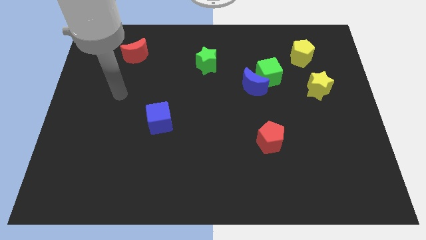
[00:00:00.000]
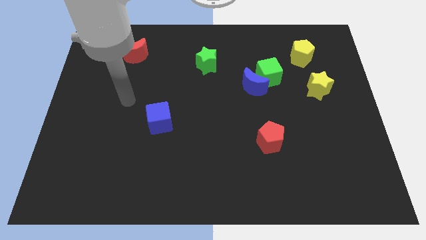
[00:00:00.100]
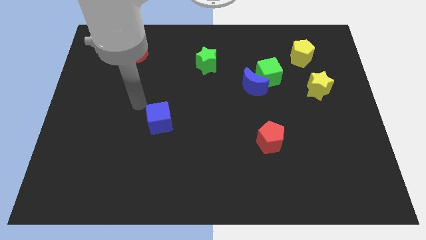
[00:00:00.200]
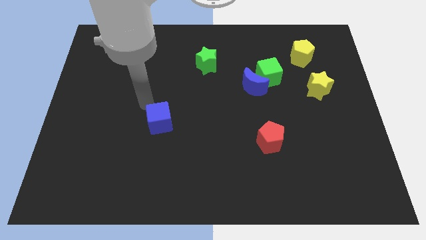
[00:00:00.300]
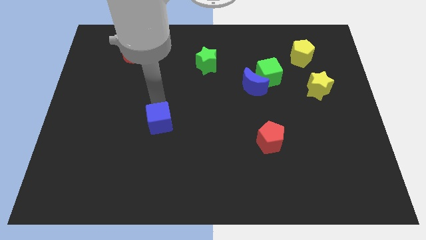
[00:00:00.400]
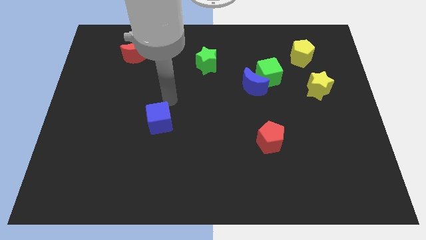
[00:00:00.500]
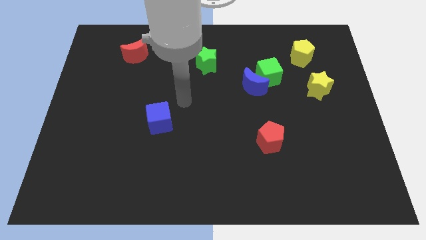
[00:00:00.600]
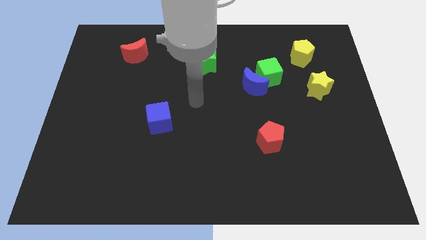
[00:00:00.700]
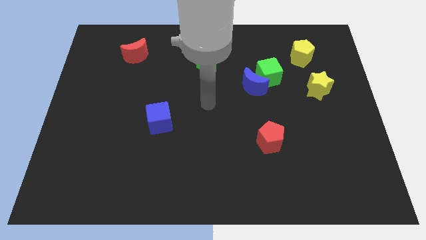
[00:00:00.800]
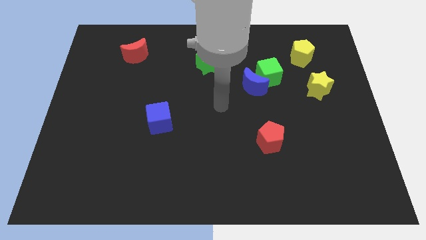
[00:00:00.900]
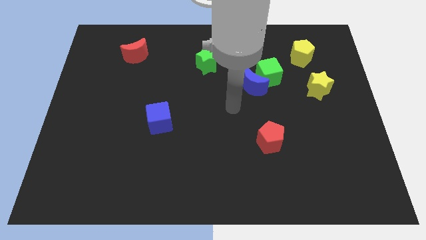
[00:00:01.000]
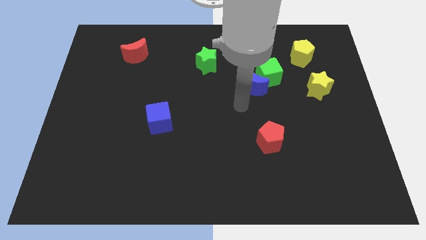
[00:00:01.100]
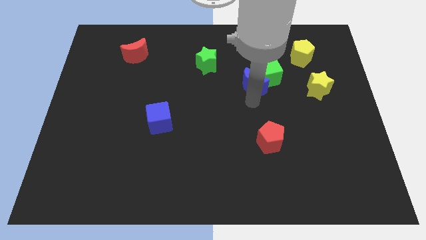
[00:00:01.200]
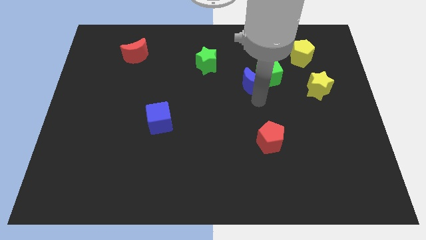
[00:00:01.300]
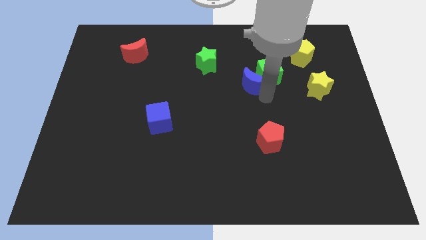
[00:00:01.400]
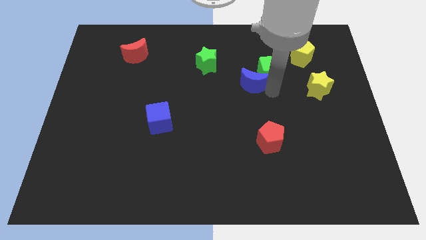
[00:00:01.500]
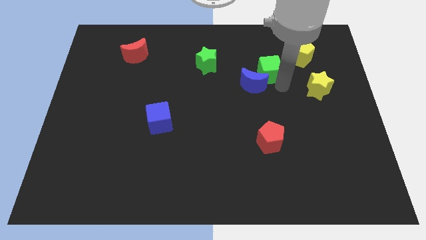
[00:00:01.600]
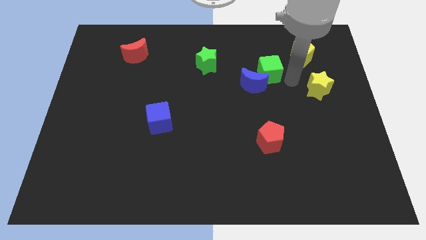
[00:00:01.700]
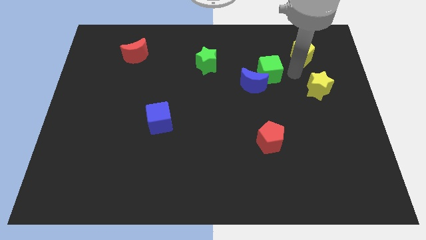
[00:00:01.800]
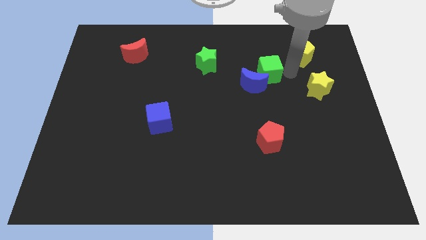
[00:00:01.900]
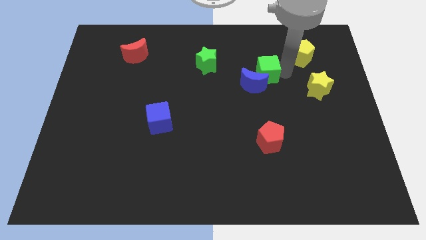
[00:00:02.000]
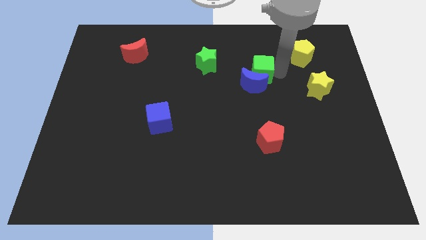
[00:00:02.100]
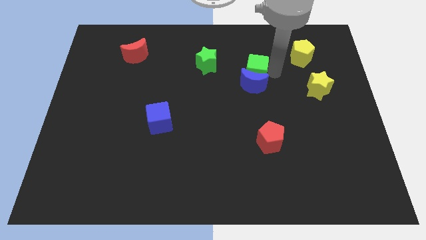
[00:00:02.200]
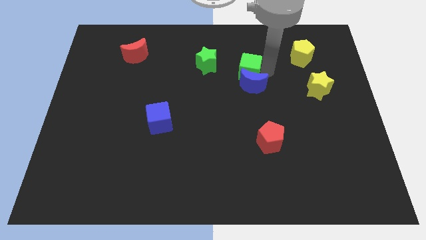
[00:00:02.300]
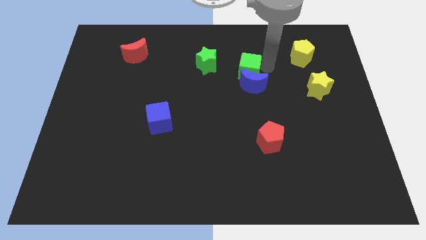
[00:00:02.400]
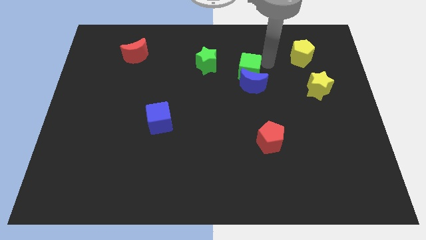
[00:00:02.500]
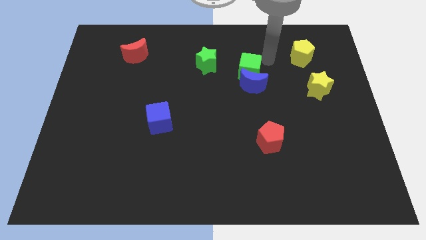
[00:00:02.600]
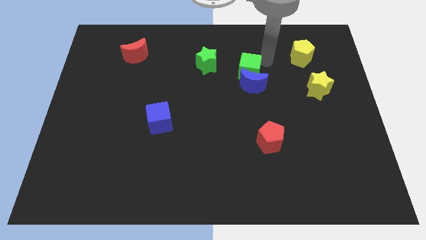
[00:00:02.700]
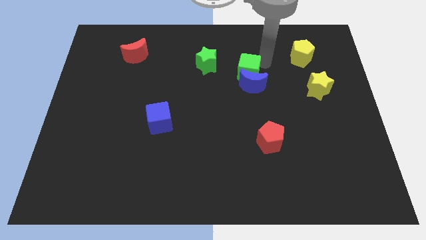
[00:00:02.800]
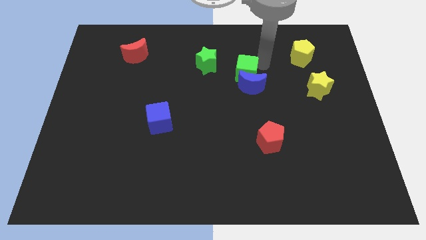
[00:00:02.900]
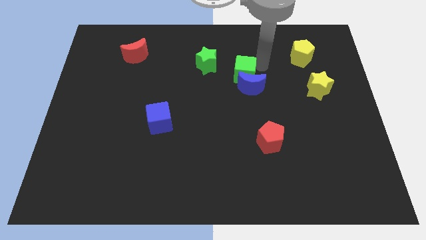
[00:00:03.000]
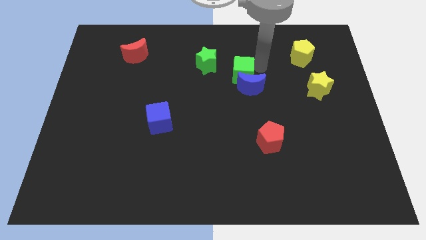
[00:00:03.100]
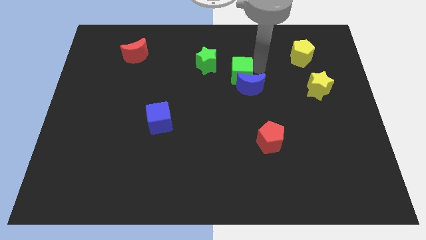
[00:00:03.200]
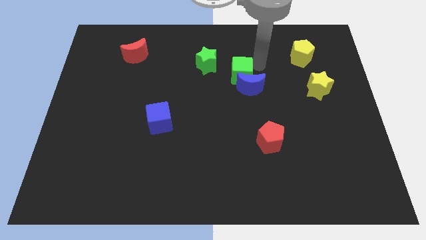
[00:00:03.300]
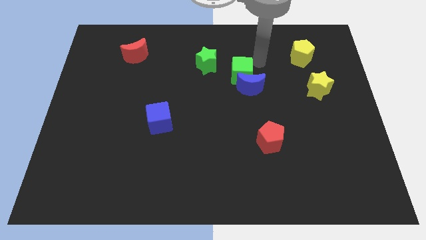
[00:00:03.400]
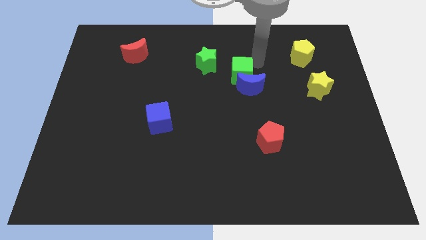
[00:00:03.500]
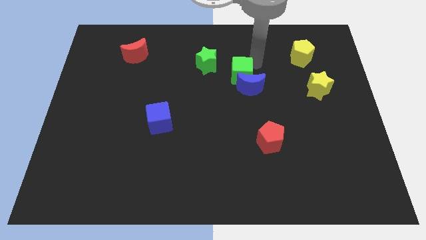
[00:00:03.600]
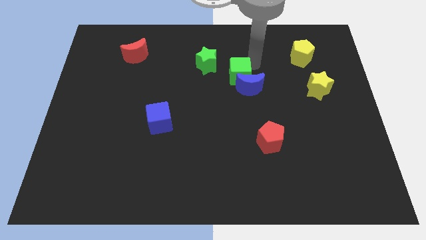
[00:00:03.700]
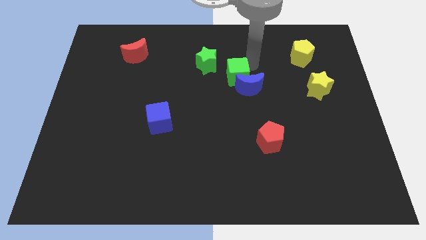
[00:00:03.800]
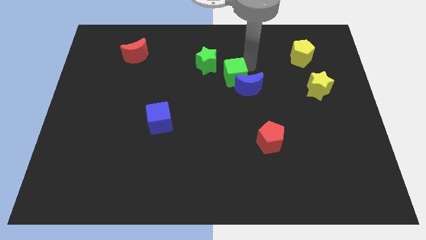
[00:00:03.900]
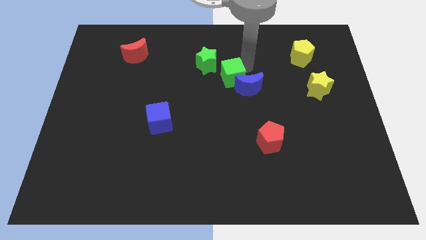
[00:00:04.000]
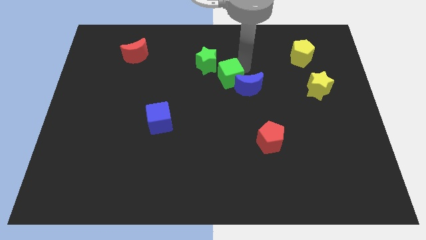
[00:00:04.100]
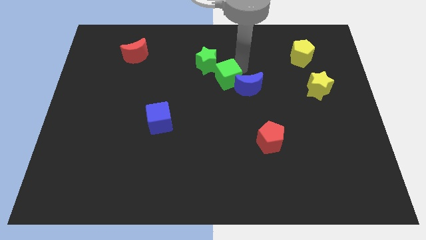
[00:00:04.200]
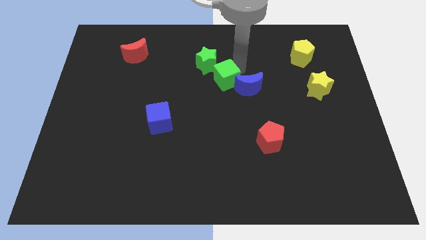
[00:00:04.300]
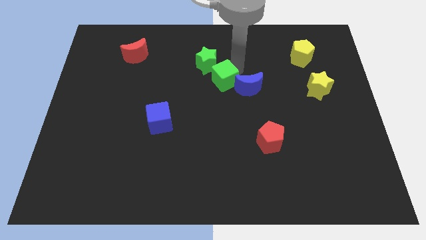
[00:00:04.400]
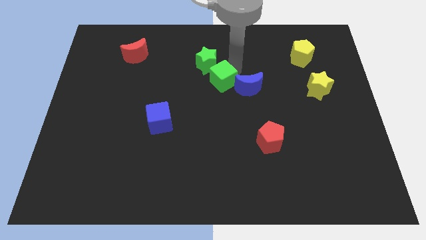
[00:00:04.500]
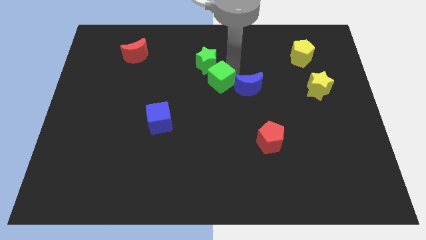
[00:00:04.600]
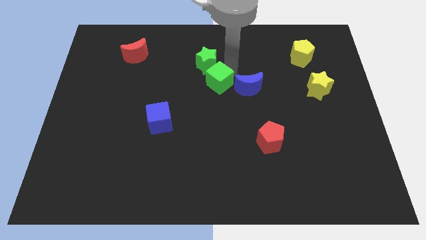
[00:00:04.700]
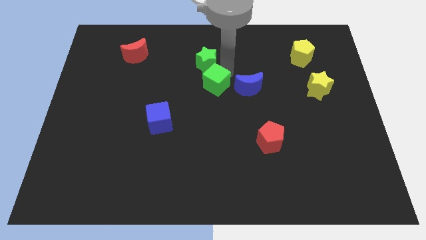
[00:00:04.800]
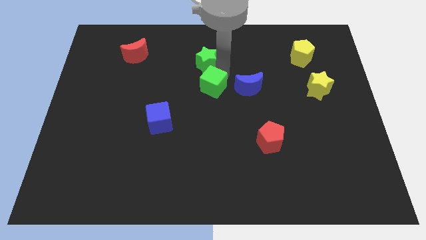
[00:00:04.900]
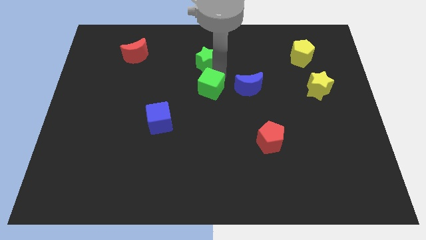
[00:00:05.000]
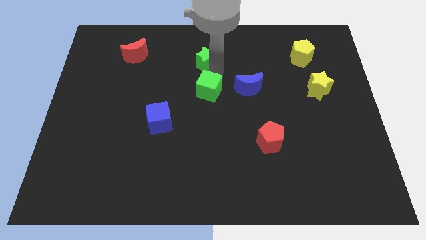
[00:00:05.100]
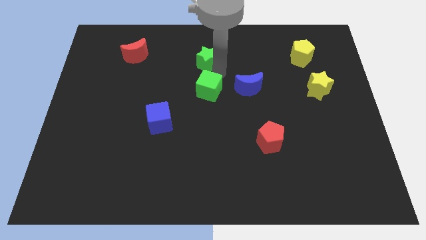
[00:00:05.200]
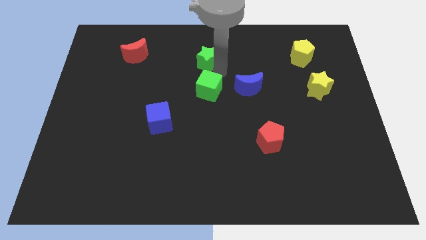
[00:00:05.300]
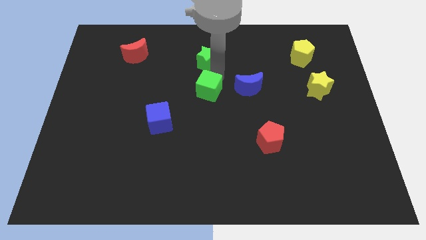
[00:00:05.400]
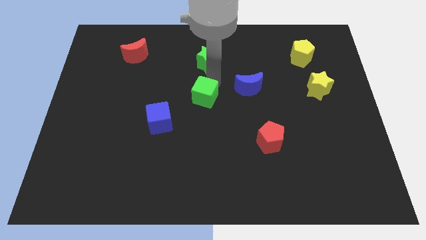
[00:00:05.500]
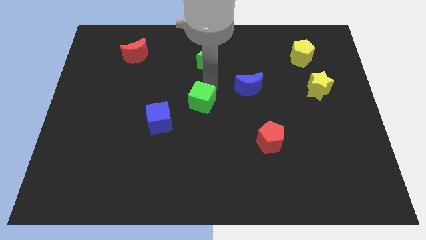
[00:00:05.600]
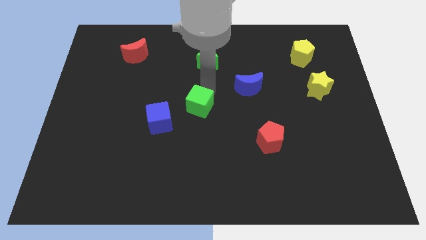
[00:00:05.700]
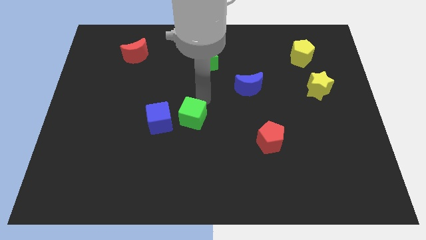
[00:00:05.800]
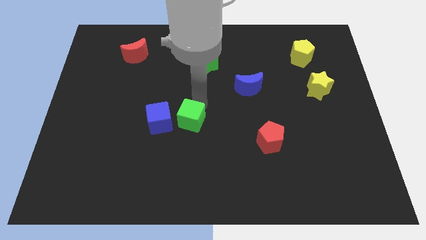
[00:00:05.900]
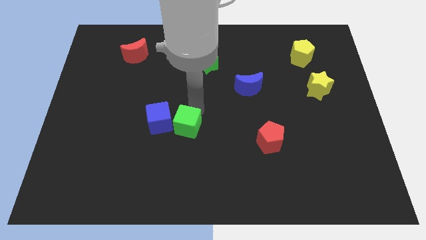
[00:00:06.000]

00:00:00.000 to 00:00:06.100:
push the green cube to the bottom right side of the blue cube

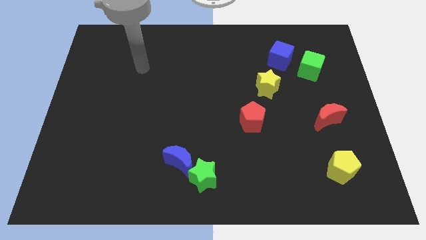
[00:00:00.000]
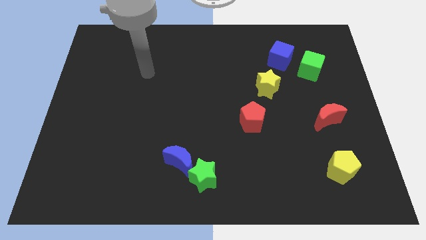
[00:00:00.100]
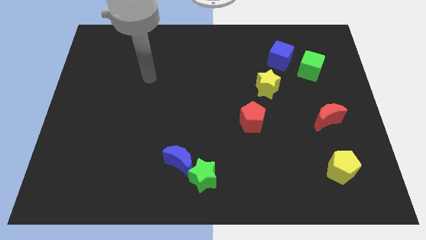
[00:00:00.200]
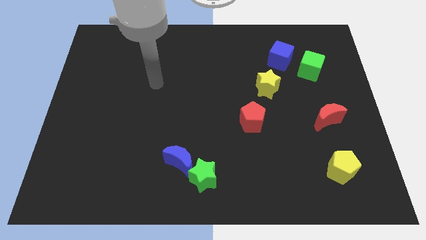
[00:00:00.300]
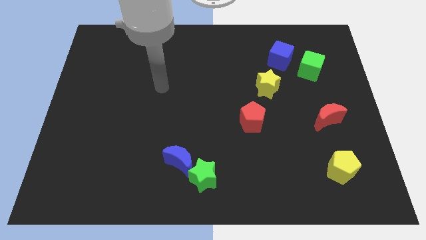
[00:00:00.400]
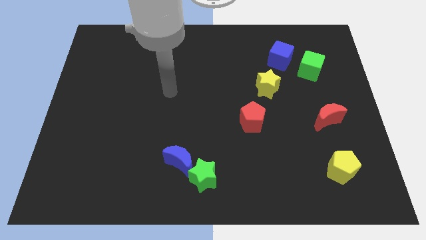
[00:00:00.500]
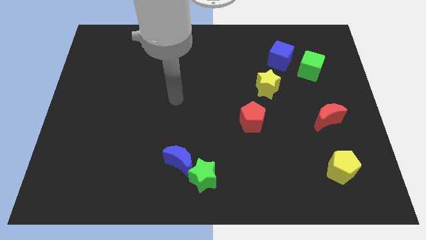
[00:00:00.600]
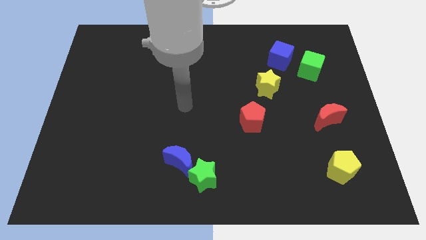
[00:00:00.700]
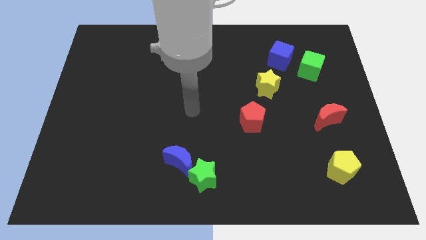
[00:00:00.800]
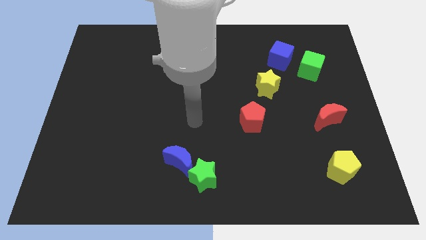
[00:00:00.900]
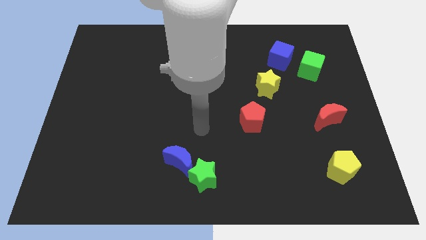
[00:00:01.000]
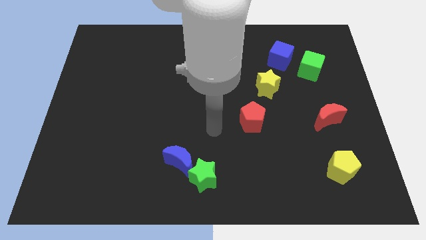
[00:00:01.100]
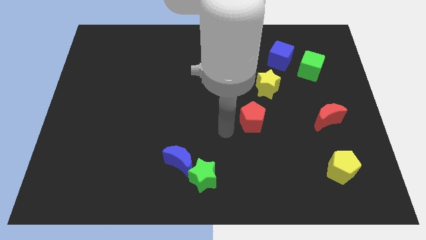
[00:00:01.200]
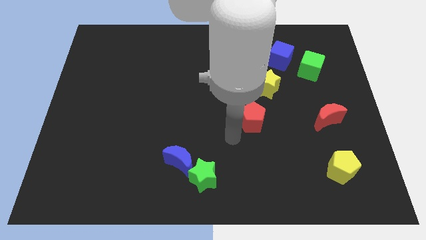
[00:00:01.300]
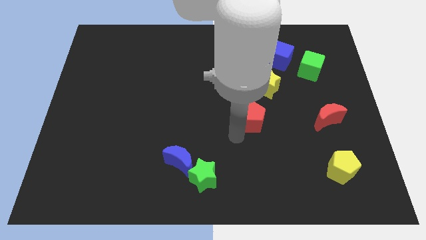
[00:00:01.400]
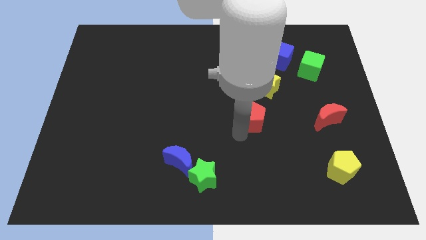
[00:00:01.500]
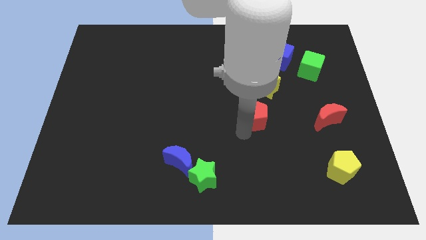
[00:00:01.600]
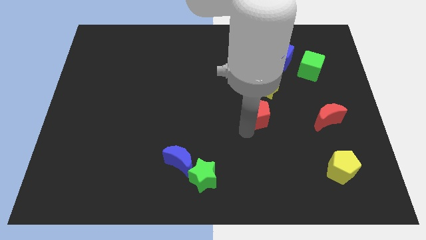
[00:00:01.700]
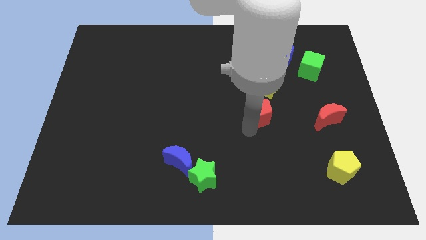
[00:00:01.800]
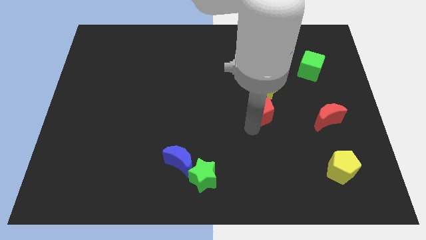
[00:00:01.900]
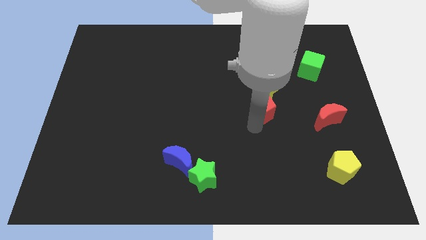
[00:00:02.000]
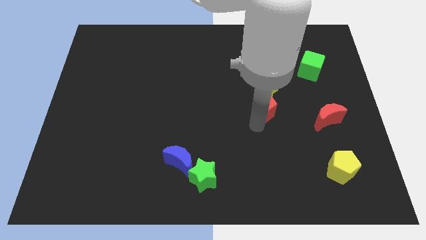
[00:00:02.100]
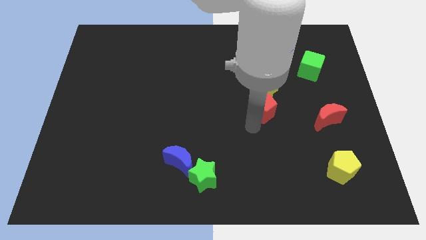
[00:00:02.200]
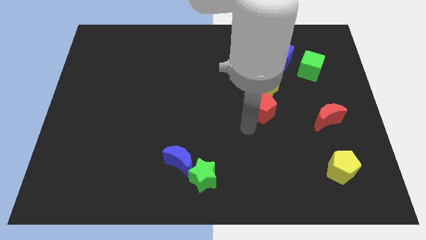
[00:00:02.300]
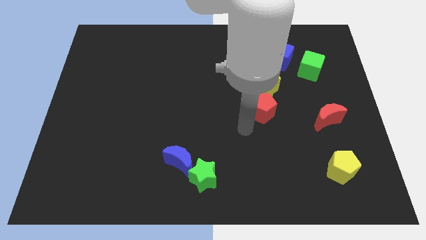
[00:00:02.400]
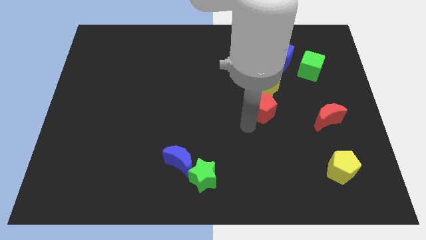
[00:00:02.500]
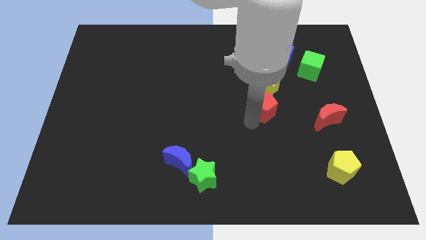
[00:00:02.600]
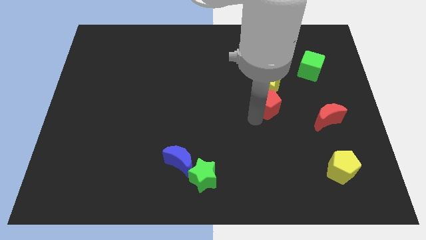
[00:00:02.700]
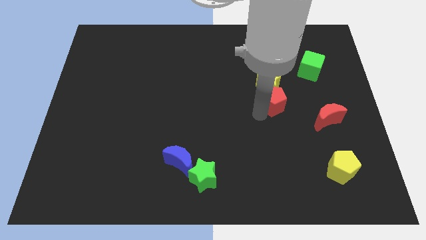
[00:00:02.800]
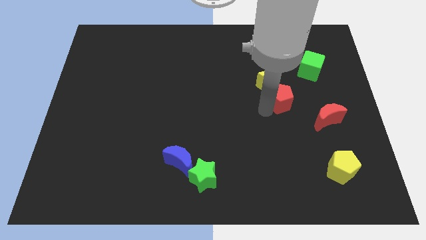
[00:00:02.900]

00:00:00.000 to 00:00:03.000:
put the red pentagon below the blue cube
